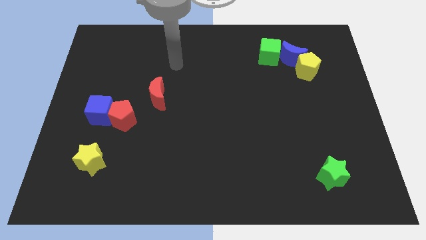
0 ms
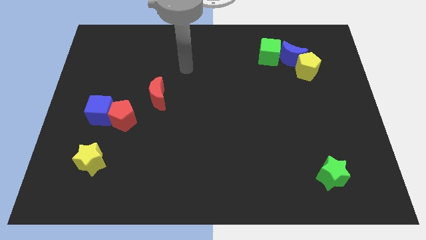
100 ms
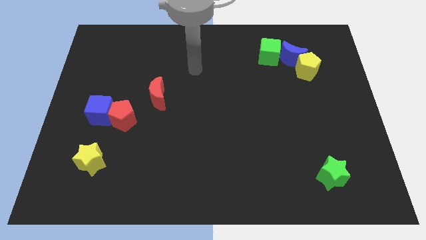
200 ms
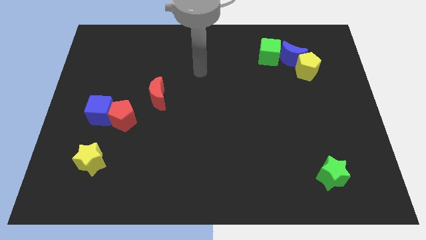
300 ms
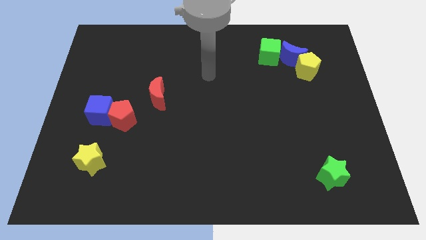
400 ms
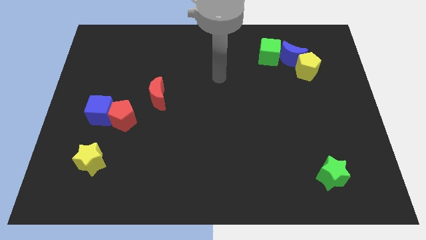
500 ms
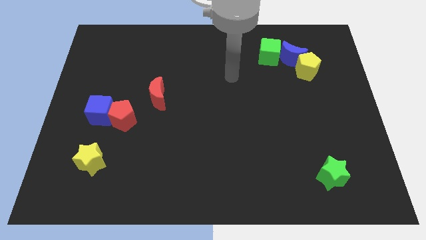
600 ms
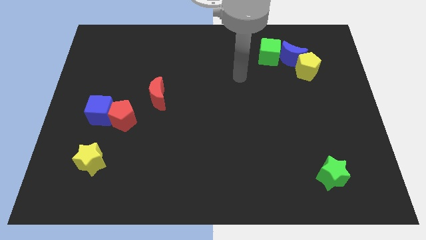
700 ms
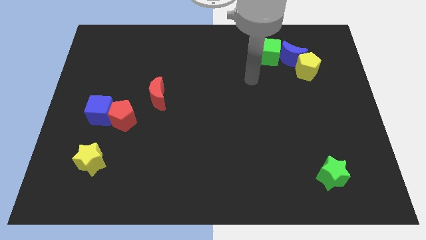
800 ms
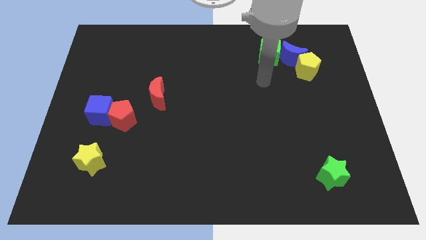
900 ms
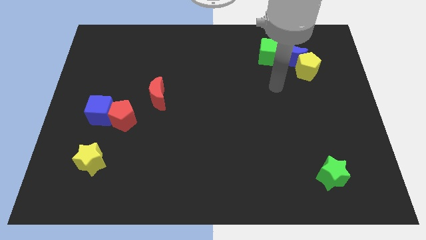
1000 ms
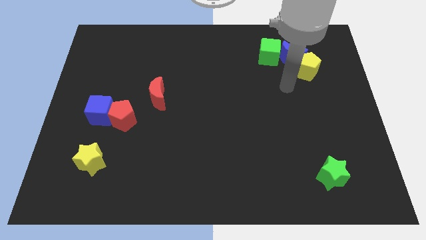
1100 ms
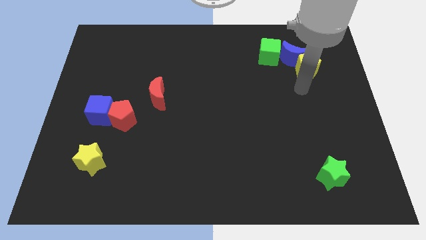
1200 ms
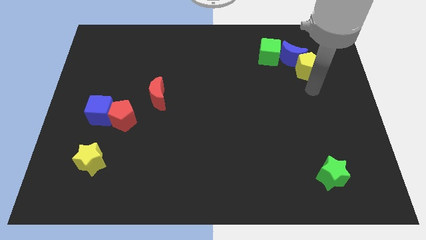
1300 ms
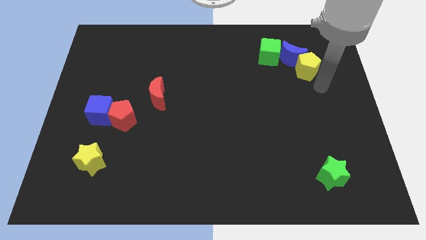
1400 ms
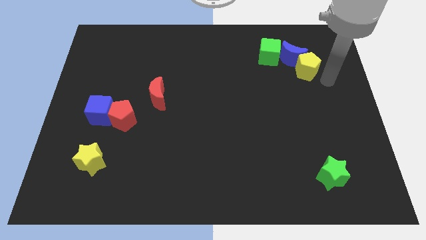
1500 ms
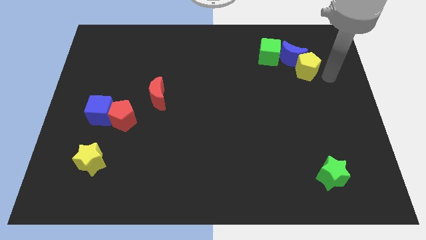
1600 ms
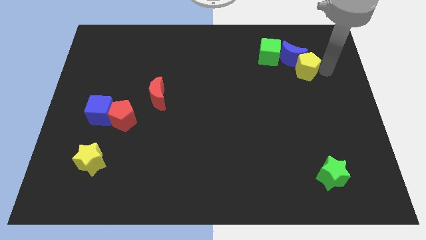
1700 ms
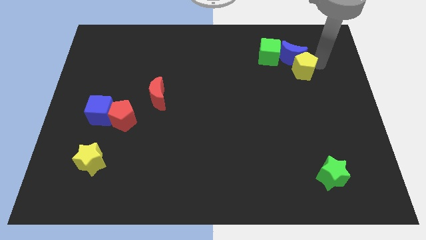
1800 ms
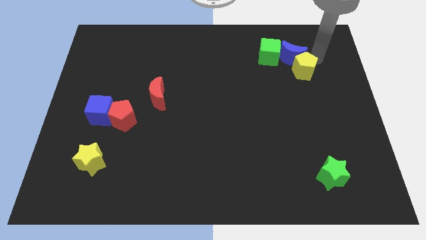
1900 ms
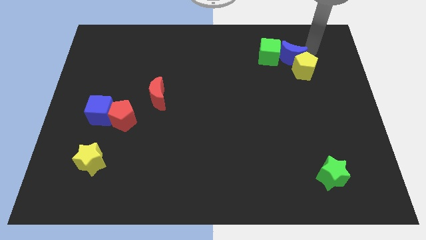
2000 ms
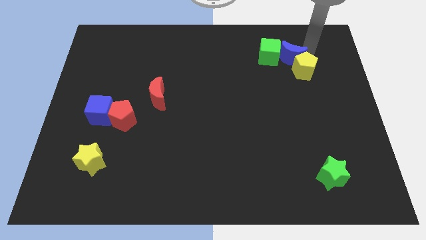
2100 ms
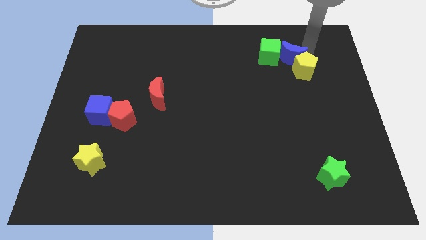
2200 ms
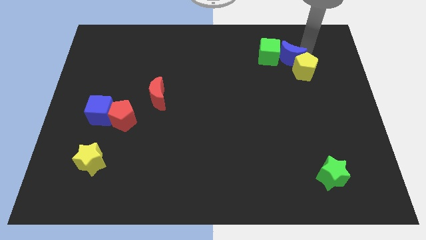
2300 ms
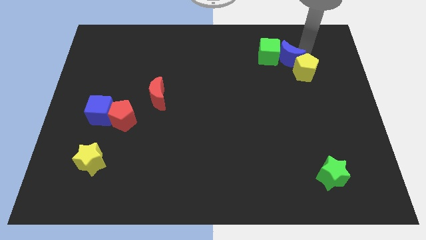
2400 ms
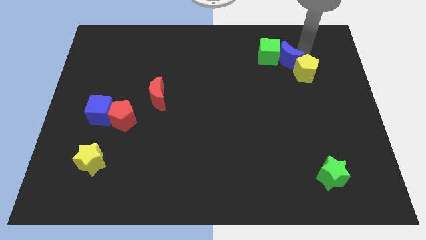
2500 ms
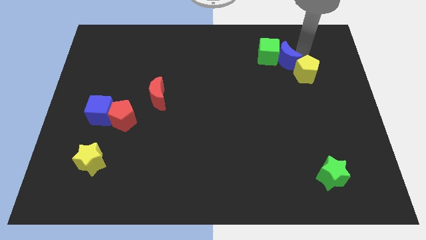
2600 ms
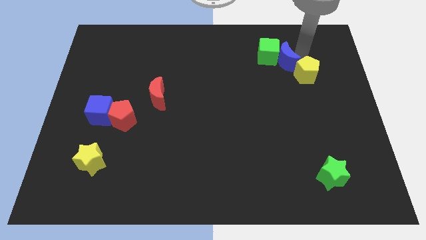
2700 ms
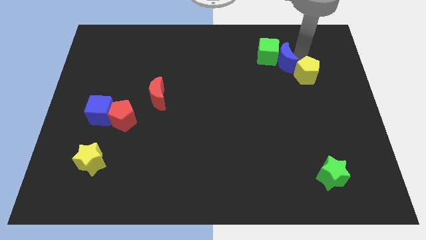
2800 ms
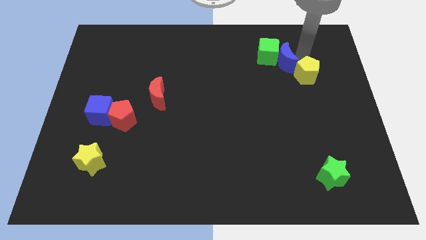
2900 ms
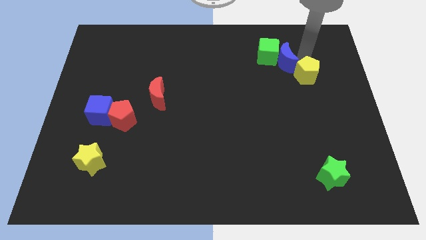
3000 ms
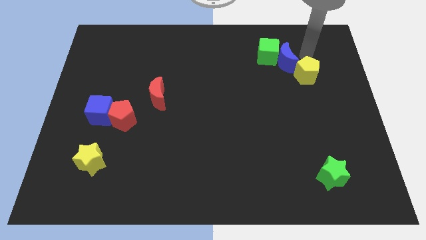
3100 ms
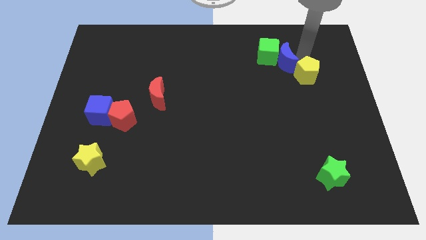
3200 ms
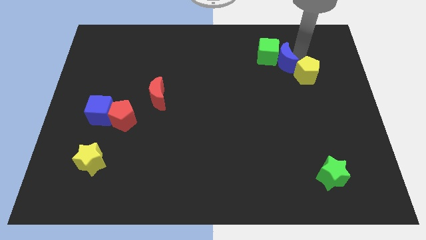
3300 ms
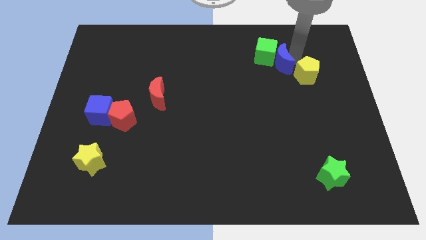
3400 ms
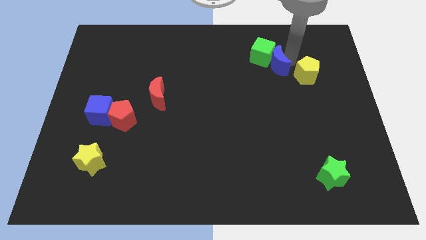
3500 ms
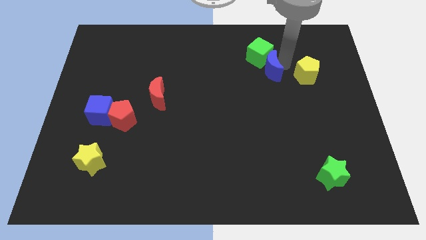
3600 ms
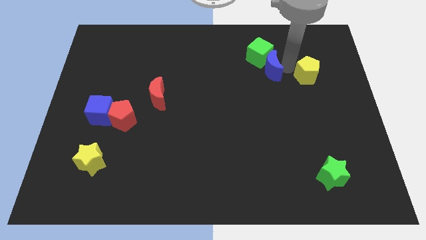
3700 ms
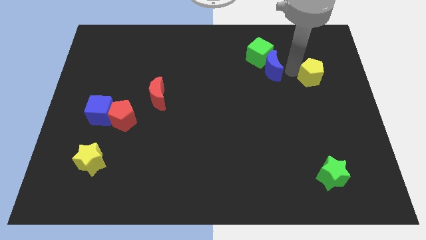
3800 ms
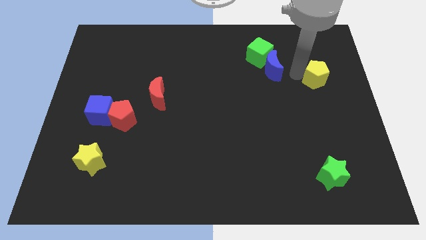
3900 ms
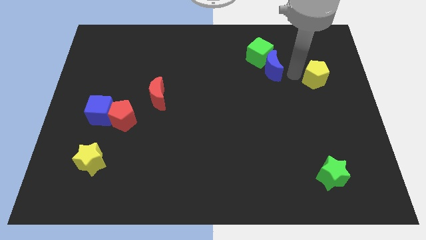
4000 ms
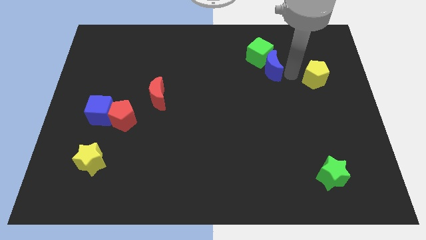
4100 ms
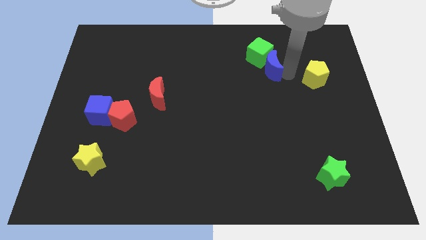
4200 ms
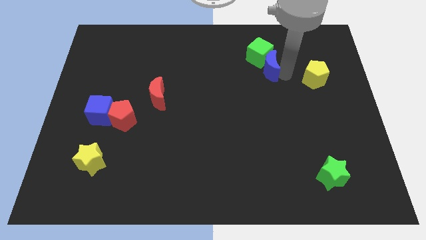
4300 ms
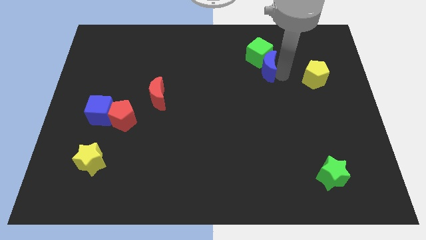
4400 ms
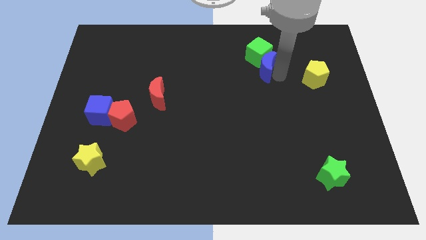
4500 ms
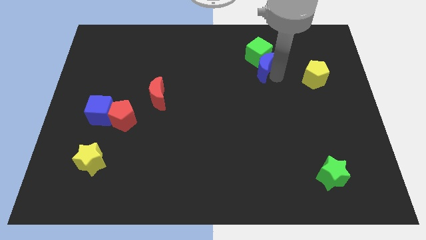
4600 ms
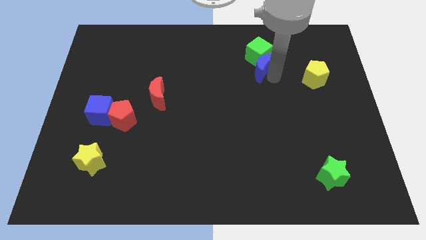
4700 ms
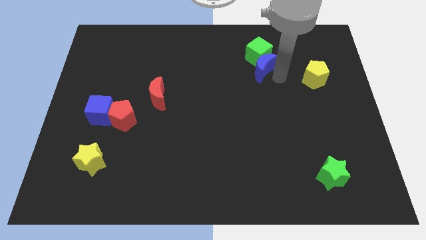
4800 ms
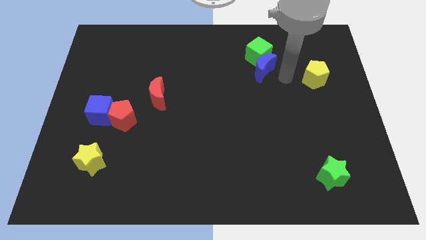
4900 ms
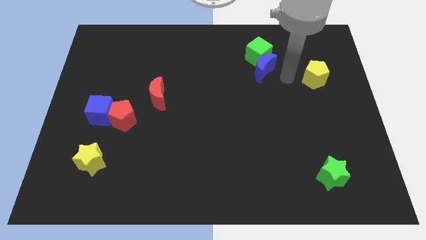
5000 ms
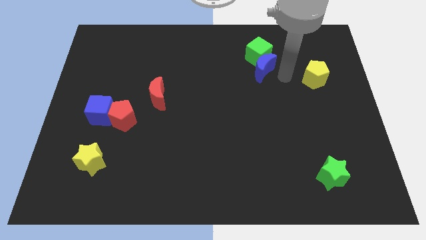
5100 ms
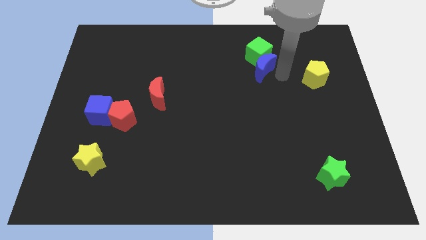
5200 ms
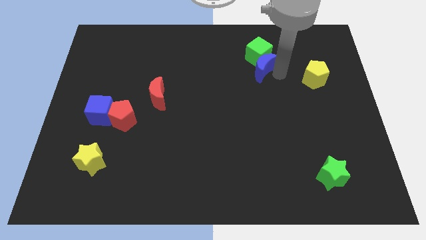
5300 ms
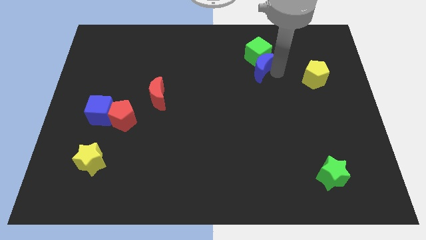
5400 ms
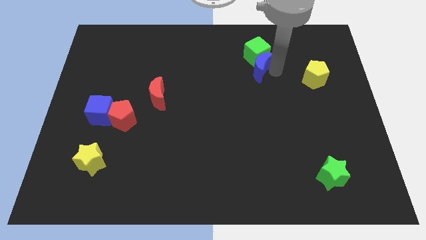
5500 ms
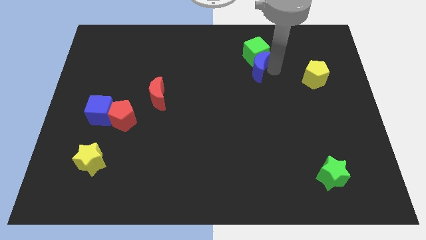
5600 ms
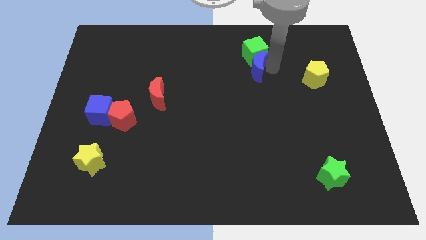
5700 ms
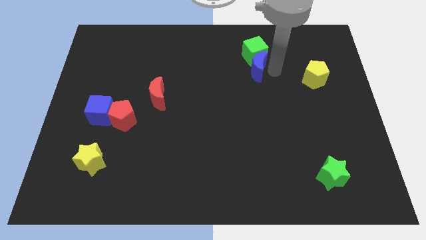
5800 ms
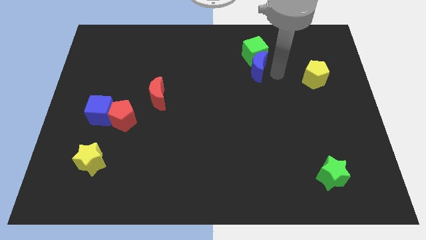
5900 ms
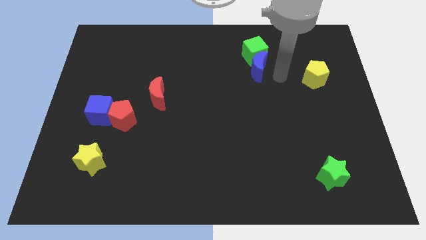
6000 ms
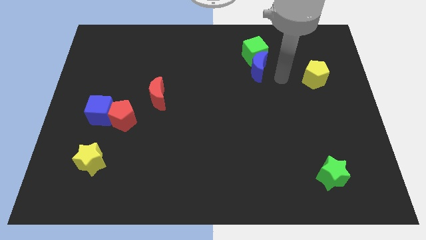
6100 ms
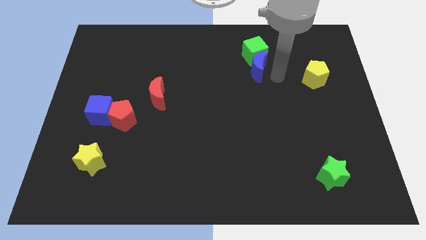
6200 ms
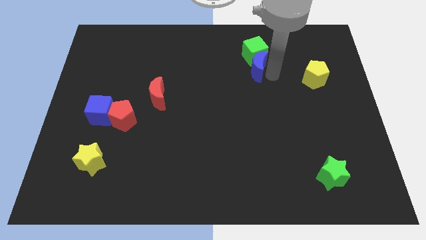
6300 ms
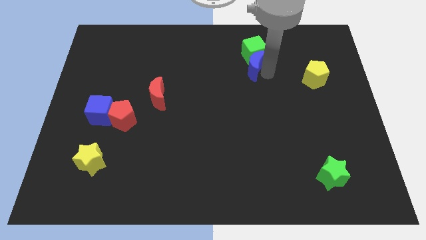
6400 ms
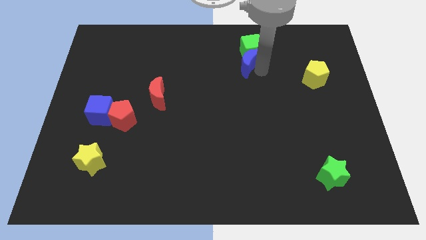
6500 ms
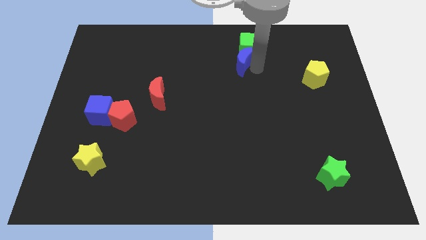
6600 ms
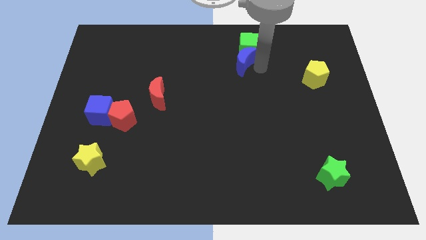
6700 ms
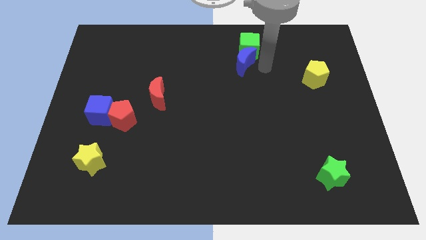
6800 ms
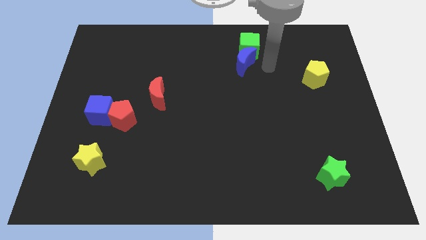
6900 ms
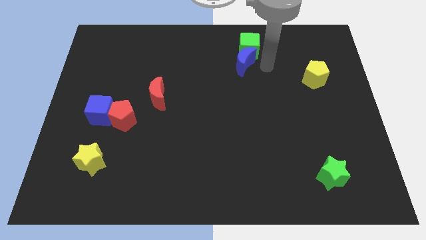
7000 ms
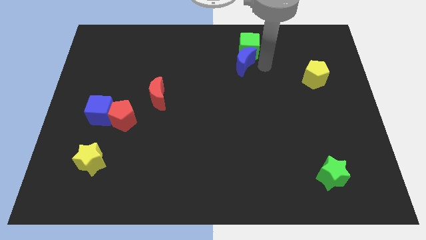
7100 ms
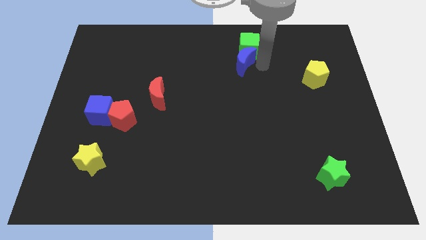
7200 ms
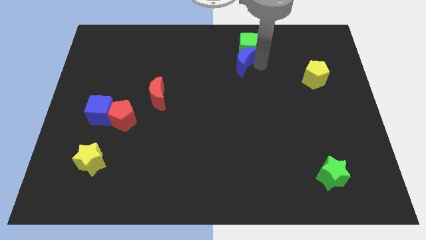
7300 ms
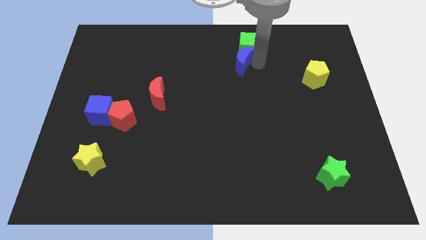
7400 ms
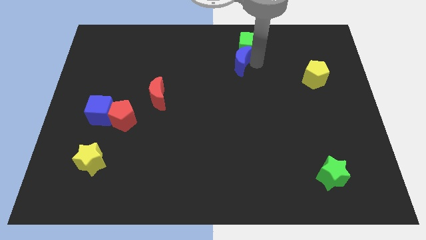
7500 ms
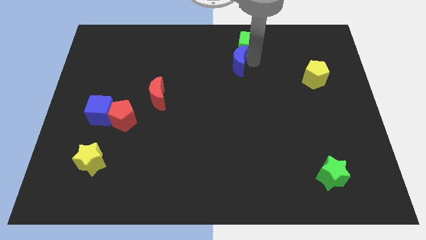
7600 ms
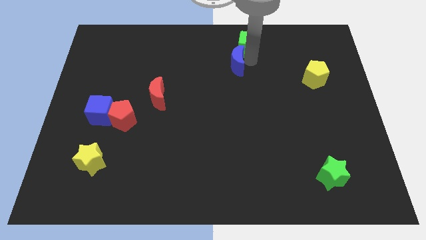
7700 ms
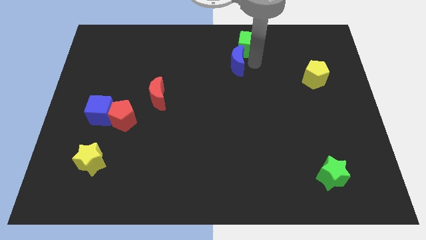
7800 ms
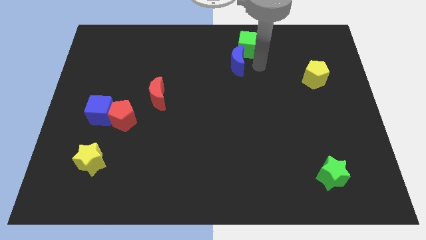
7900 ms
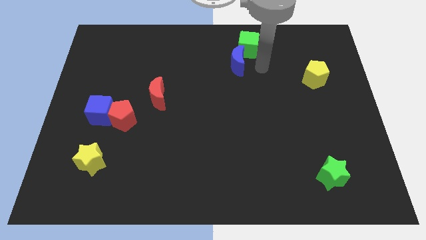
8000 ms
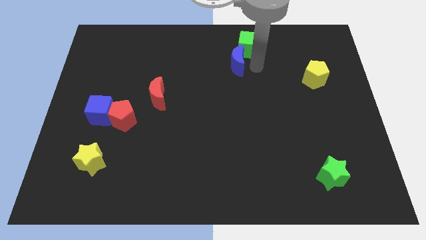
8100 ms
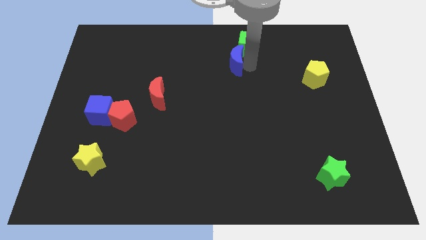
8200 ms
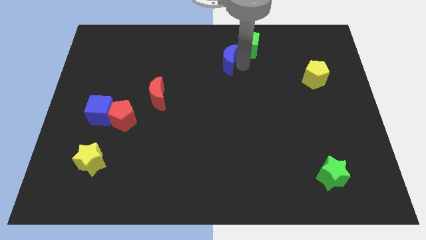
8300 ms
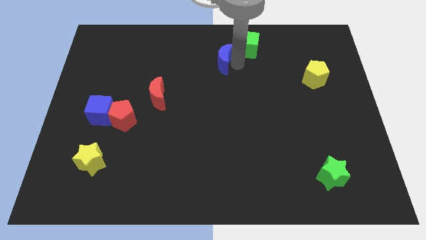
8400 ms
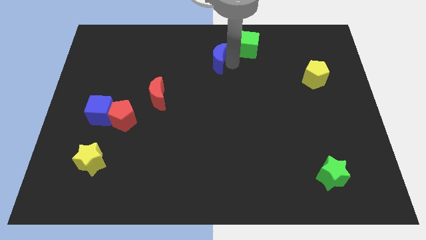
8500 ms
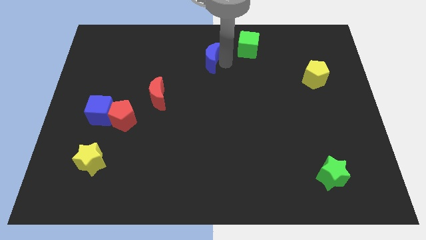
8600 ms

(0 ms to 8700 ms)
slide the blue moon left
